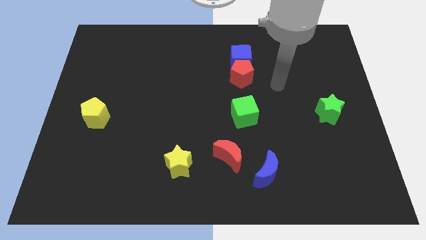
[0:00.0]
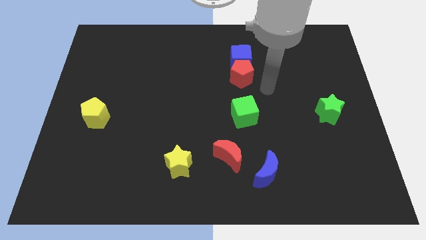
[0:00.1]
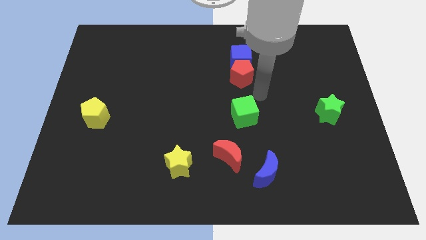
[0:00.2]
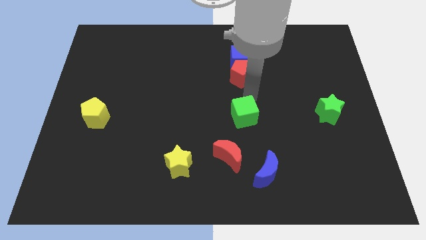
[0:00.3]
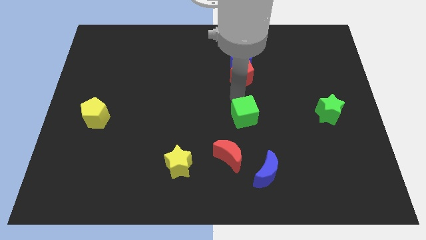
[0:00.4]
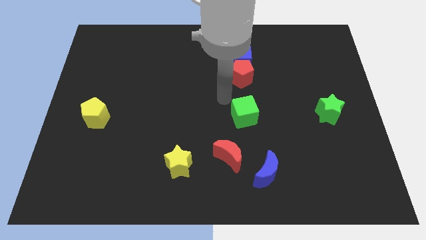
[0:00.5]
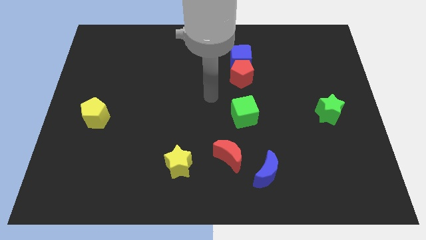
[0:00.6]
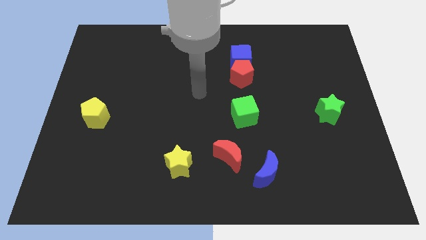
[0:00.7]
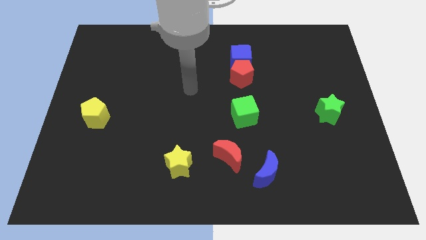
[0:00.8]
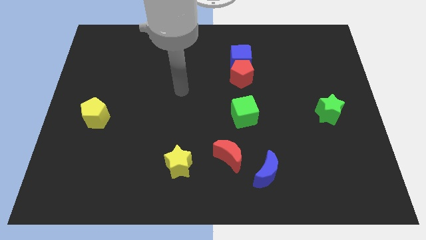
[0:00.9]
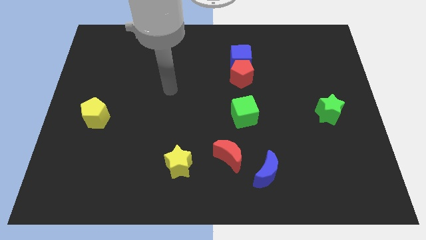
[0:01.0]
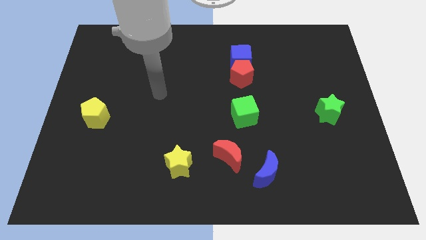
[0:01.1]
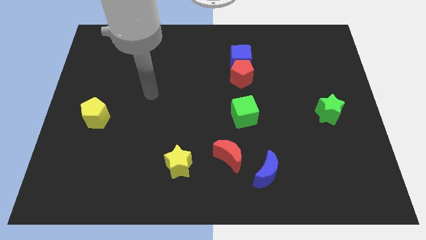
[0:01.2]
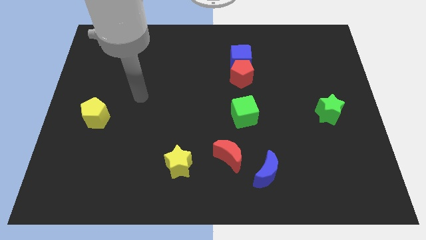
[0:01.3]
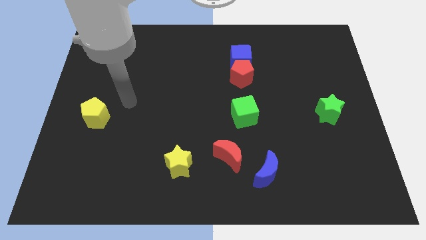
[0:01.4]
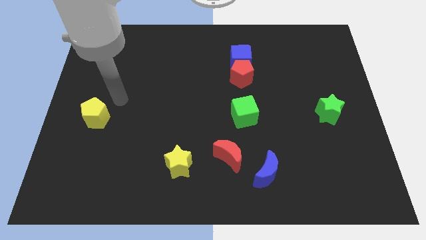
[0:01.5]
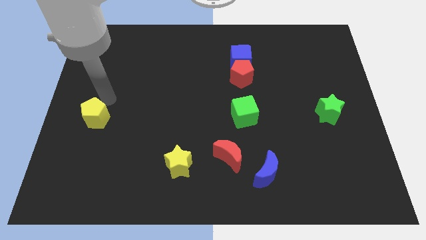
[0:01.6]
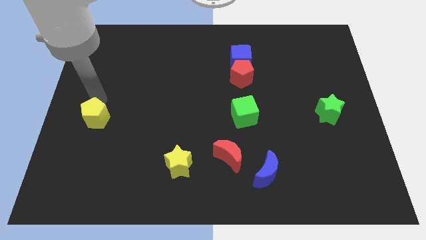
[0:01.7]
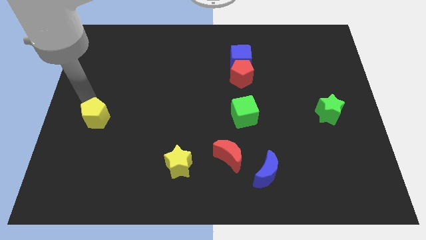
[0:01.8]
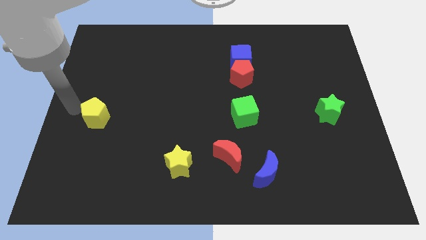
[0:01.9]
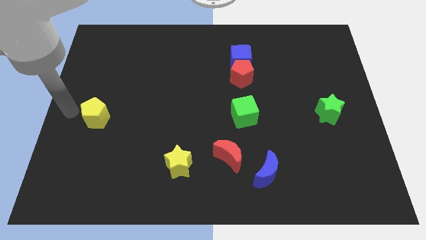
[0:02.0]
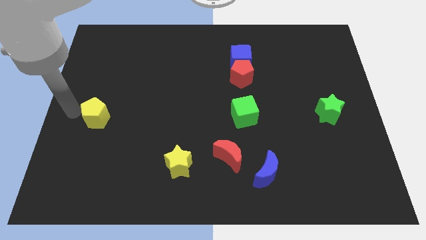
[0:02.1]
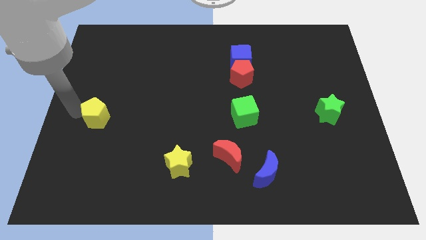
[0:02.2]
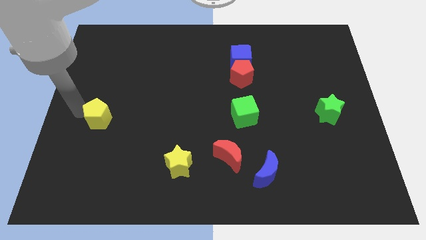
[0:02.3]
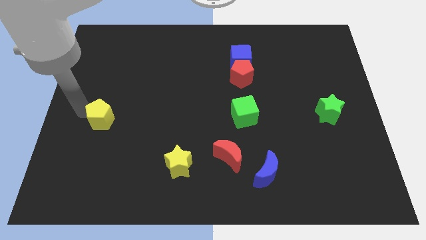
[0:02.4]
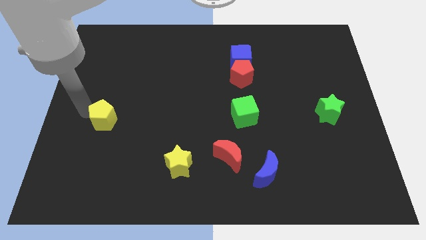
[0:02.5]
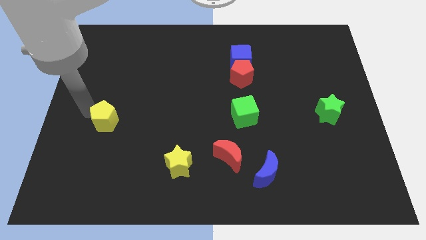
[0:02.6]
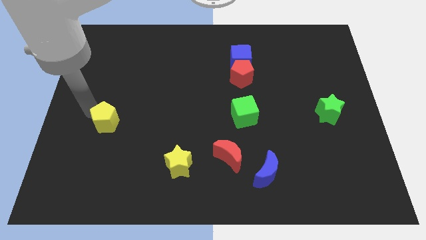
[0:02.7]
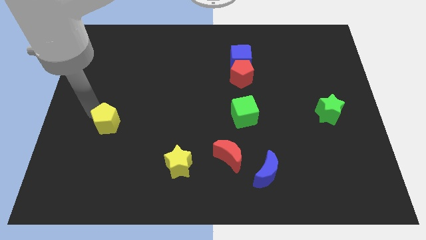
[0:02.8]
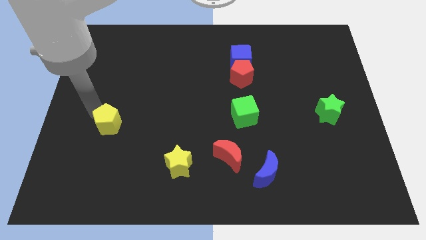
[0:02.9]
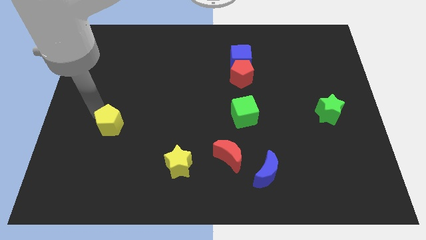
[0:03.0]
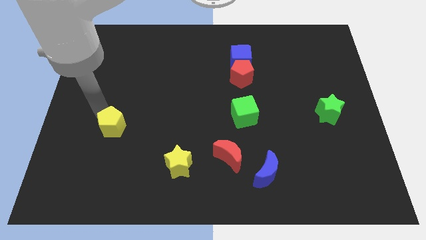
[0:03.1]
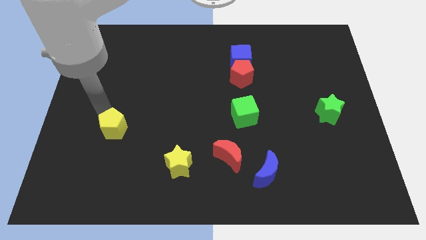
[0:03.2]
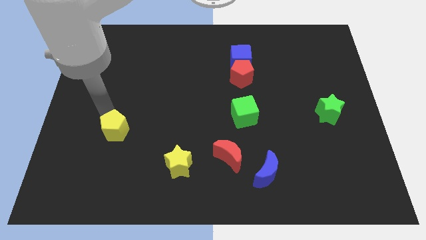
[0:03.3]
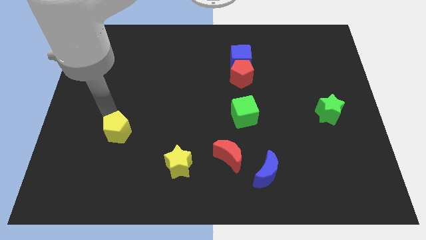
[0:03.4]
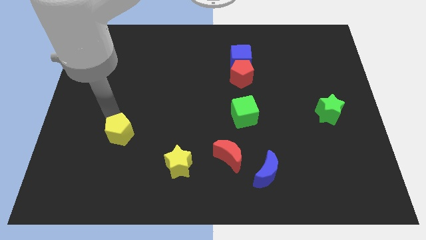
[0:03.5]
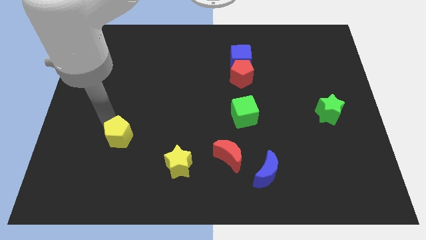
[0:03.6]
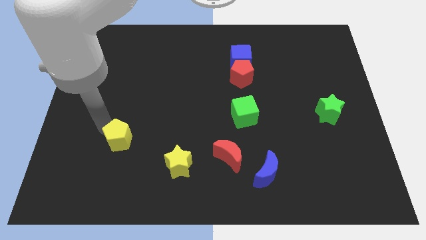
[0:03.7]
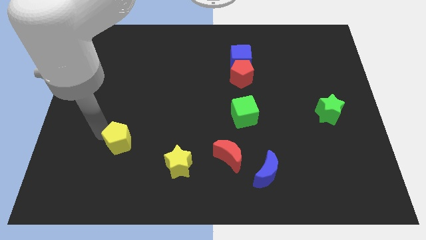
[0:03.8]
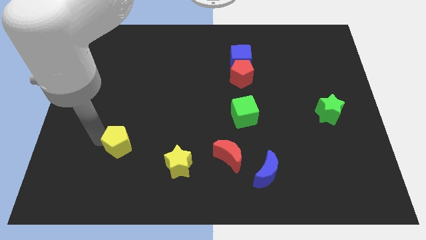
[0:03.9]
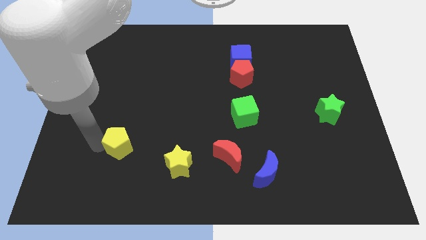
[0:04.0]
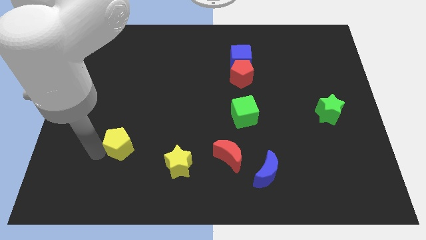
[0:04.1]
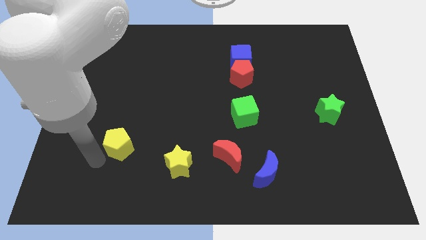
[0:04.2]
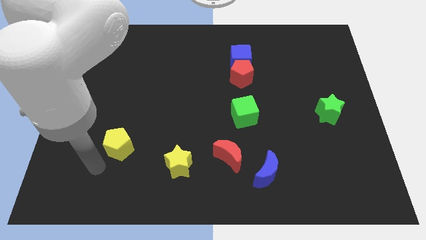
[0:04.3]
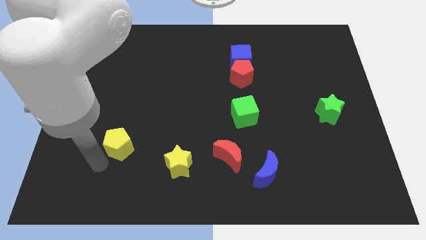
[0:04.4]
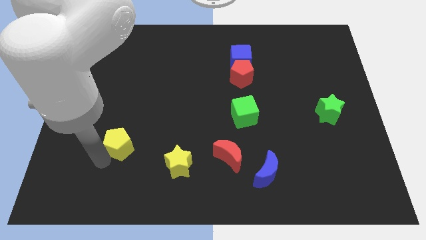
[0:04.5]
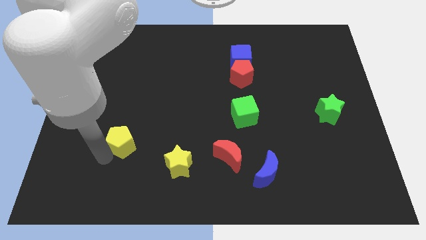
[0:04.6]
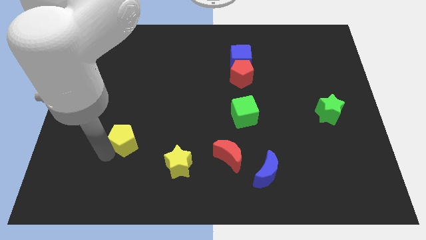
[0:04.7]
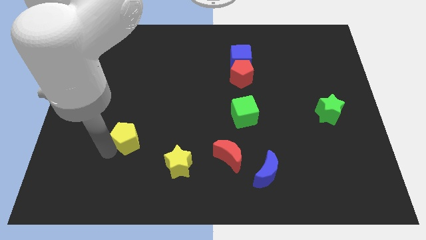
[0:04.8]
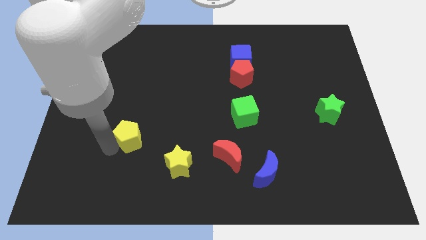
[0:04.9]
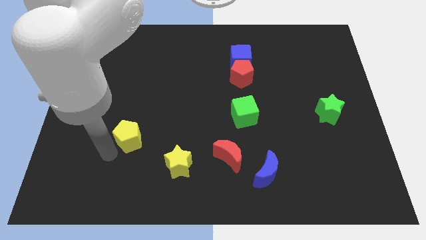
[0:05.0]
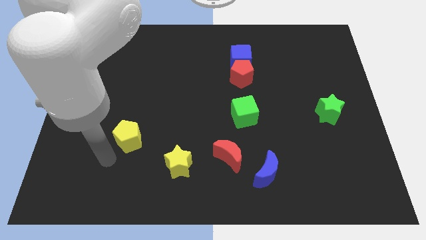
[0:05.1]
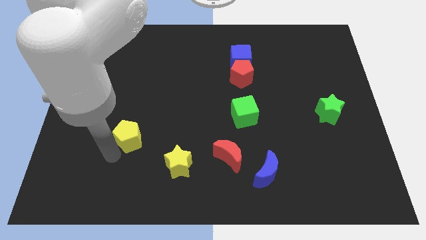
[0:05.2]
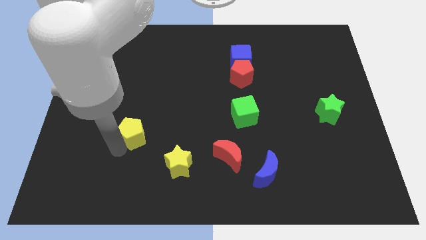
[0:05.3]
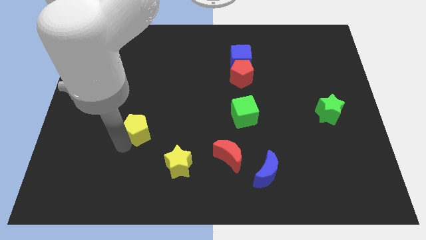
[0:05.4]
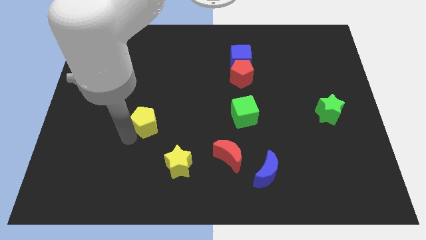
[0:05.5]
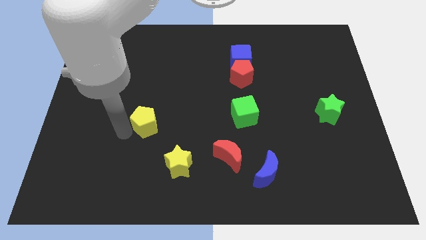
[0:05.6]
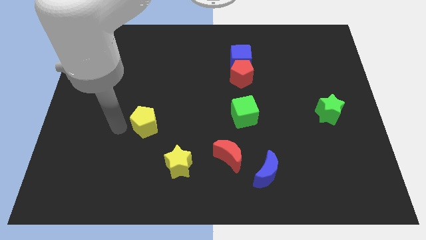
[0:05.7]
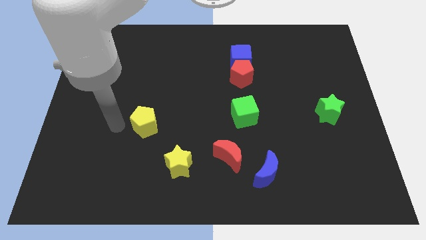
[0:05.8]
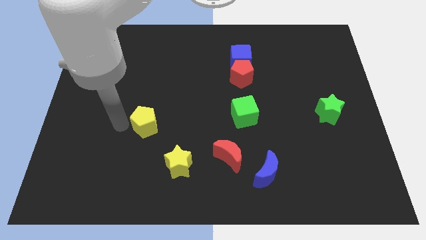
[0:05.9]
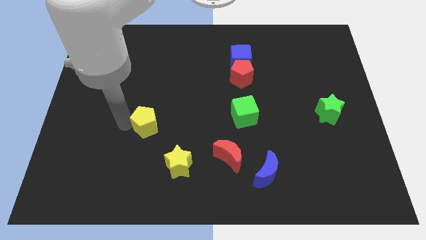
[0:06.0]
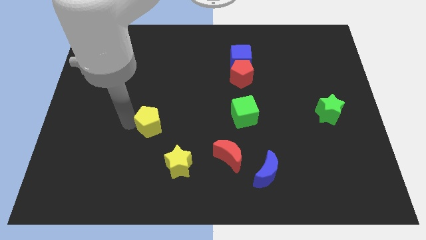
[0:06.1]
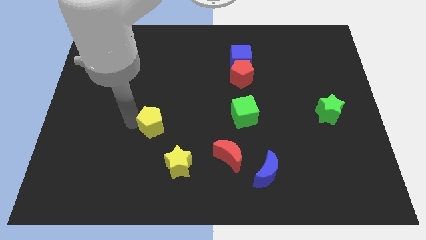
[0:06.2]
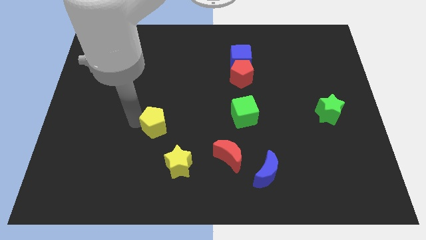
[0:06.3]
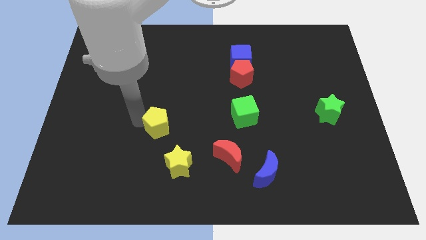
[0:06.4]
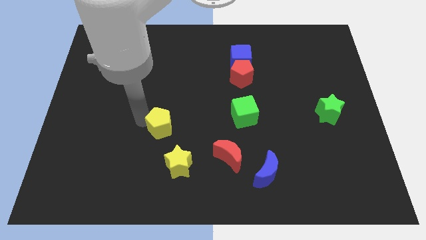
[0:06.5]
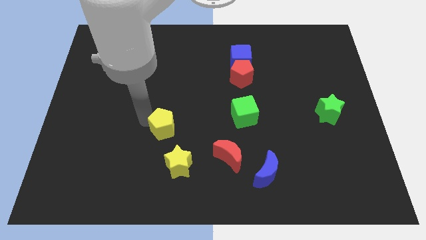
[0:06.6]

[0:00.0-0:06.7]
put the yellow pentagon above the yellow star

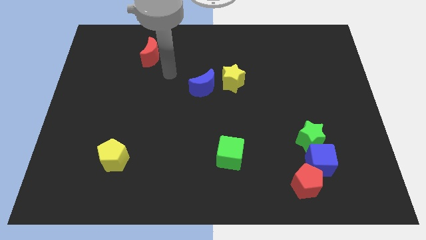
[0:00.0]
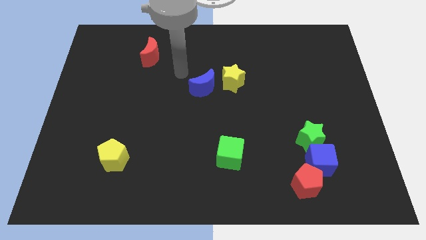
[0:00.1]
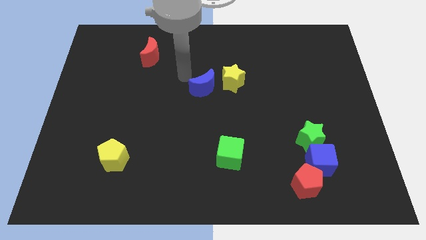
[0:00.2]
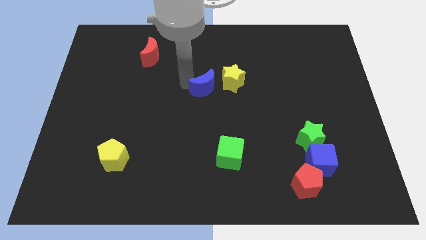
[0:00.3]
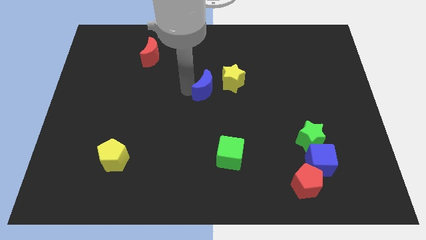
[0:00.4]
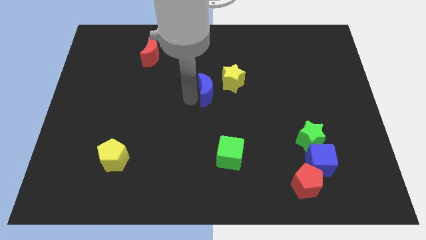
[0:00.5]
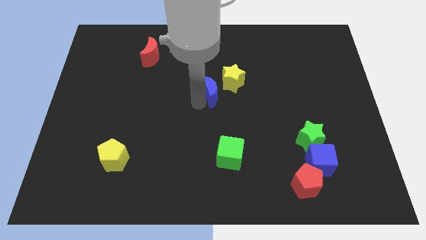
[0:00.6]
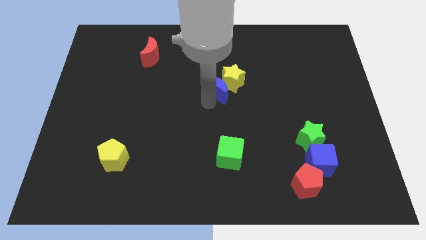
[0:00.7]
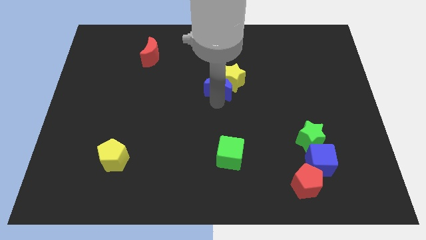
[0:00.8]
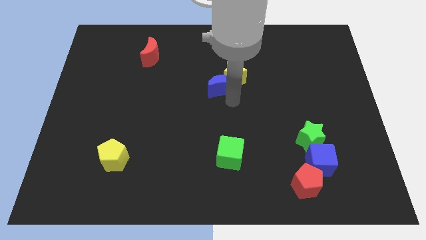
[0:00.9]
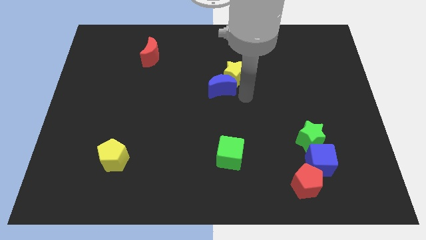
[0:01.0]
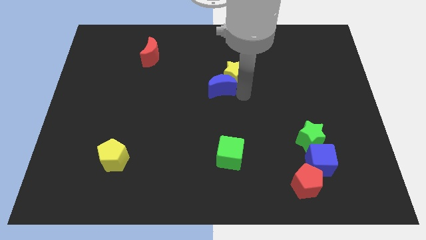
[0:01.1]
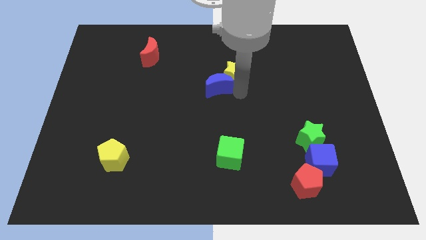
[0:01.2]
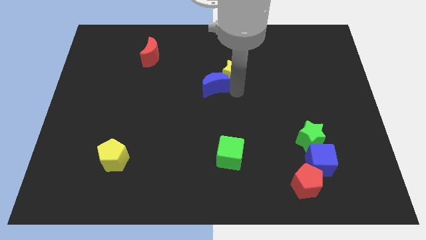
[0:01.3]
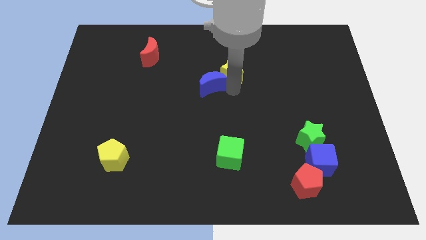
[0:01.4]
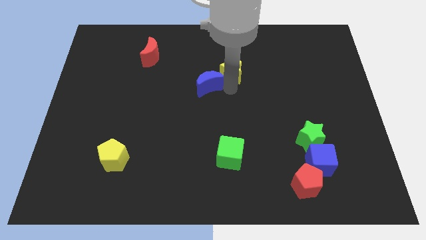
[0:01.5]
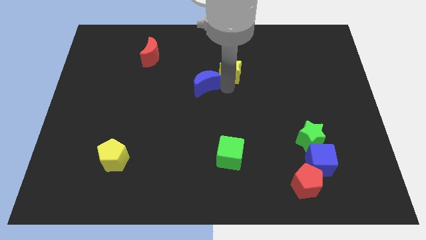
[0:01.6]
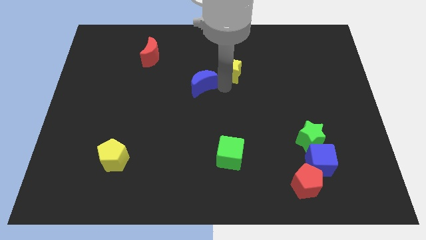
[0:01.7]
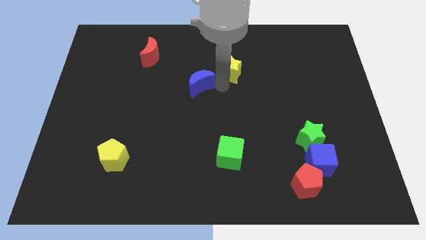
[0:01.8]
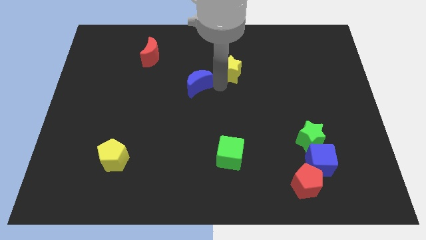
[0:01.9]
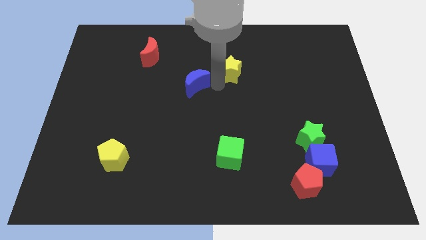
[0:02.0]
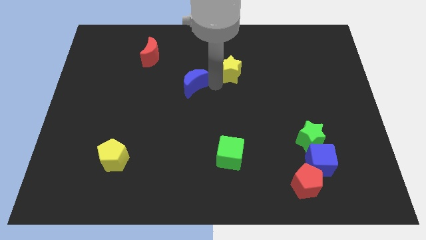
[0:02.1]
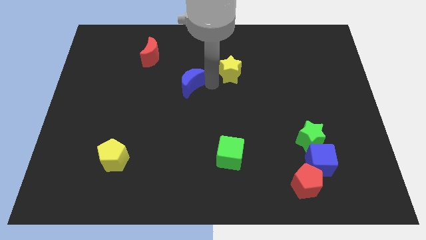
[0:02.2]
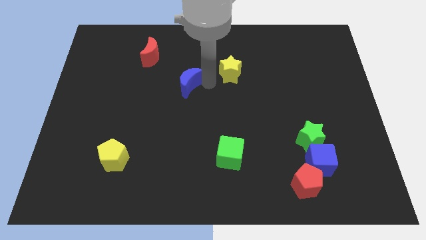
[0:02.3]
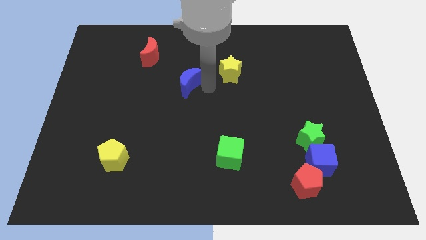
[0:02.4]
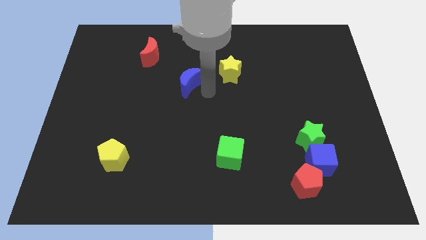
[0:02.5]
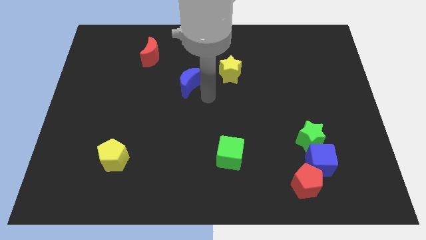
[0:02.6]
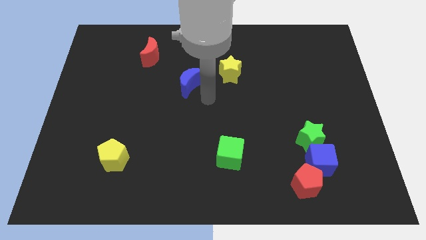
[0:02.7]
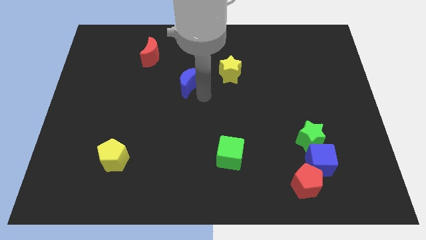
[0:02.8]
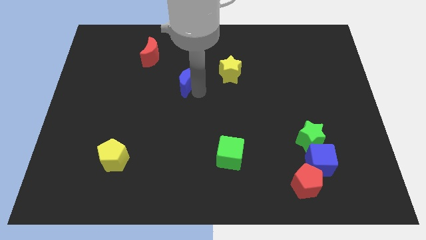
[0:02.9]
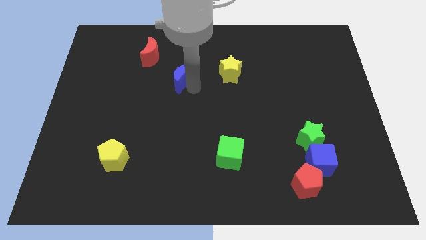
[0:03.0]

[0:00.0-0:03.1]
slide the blue moon to the bottom right of the red moon
